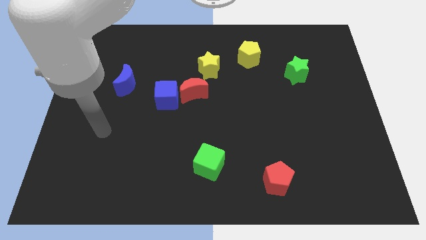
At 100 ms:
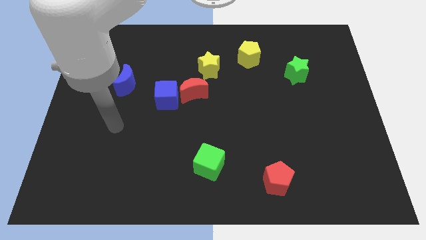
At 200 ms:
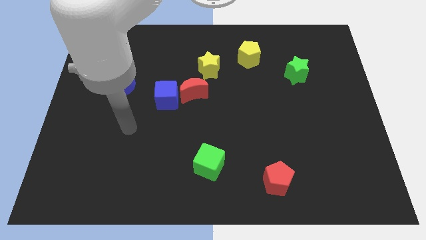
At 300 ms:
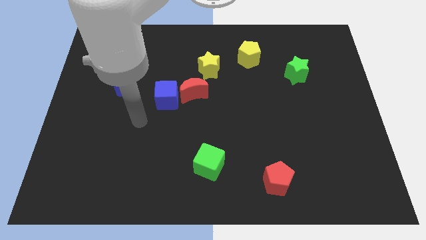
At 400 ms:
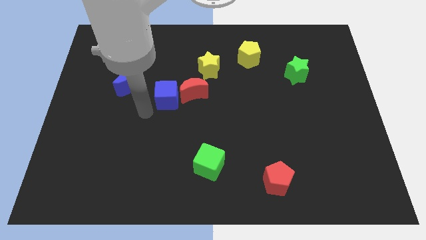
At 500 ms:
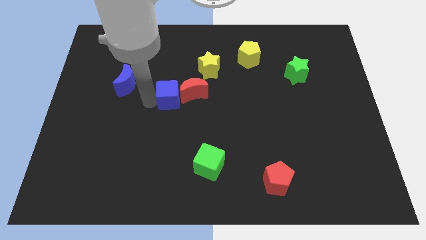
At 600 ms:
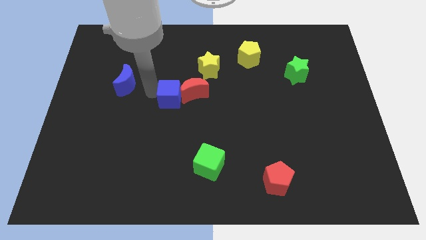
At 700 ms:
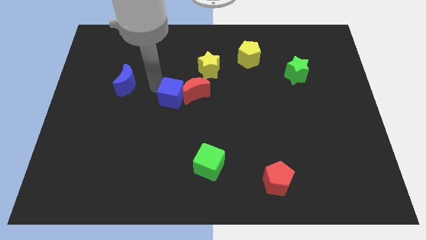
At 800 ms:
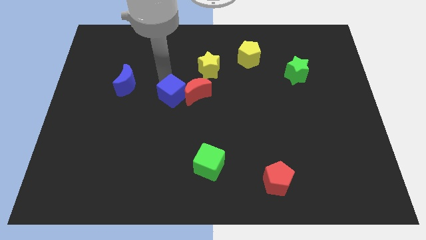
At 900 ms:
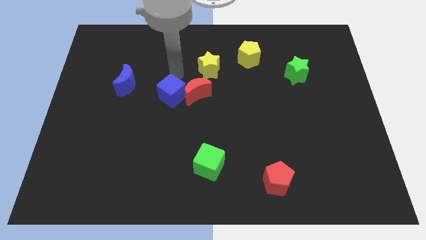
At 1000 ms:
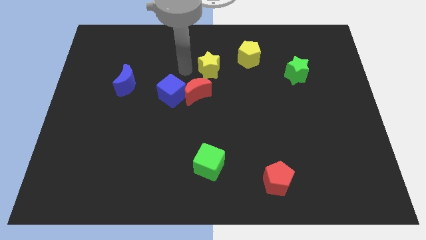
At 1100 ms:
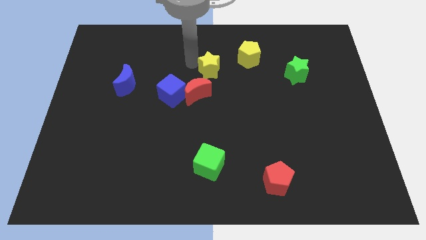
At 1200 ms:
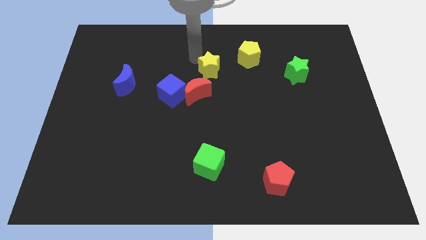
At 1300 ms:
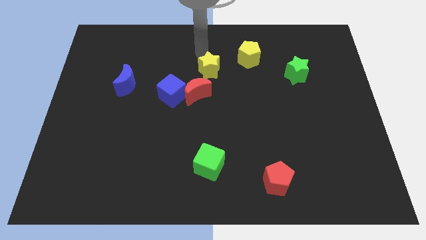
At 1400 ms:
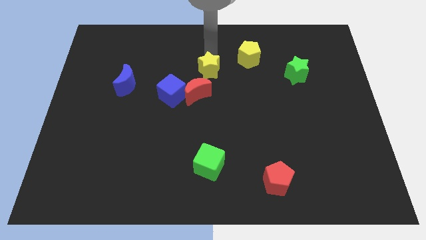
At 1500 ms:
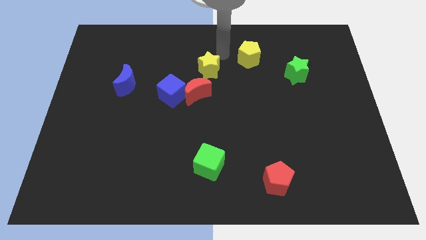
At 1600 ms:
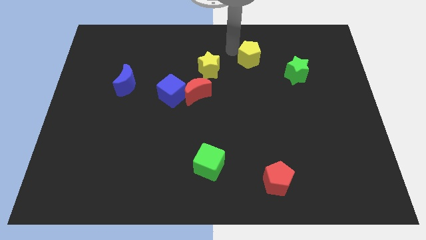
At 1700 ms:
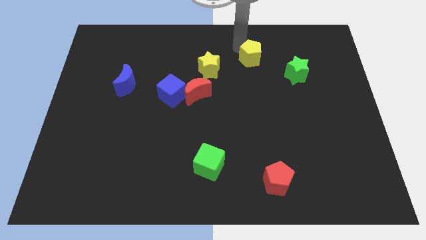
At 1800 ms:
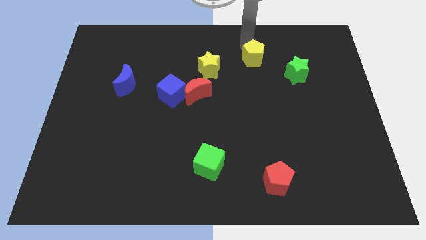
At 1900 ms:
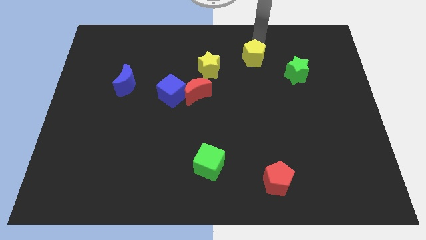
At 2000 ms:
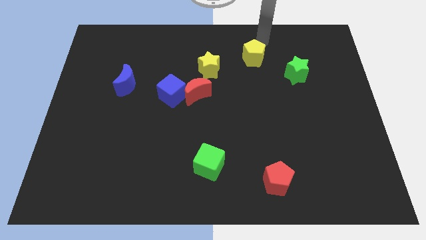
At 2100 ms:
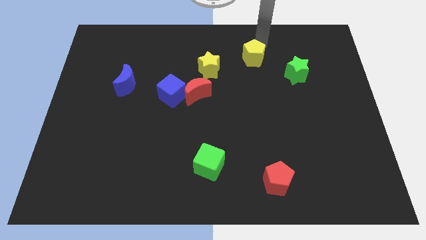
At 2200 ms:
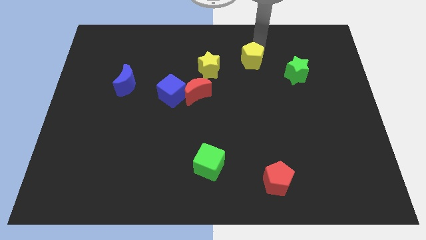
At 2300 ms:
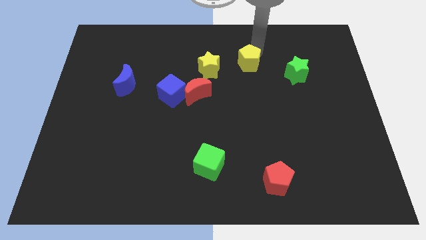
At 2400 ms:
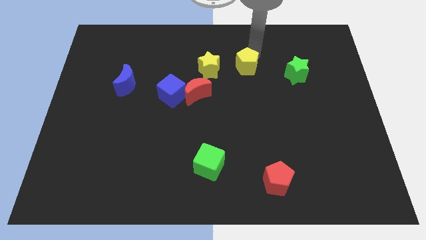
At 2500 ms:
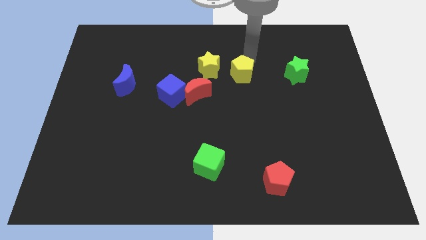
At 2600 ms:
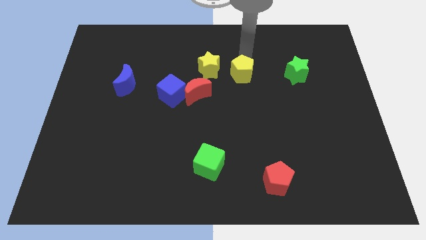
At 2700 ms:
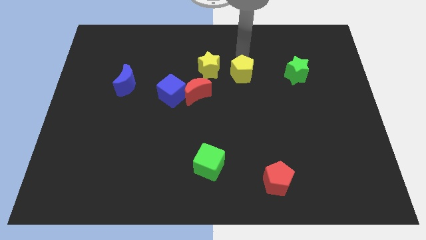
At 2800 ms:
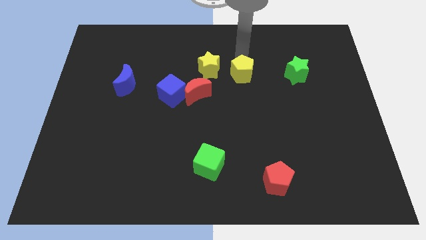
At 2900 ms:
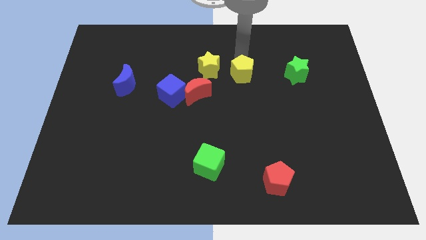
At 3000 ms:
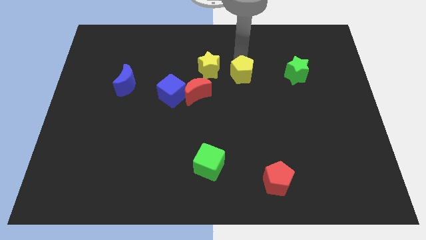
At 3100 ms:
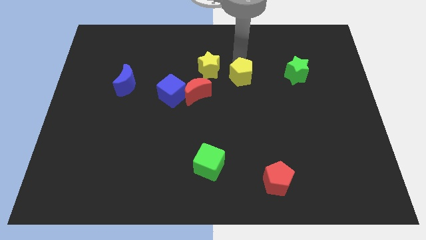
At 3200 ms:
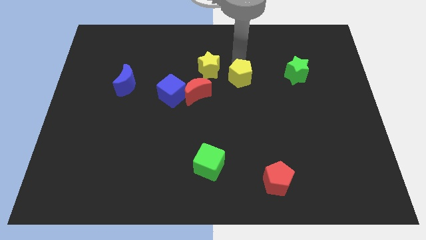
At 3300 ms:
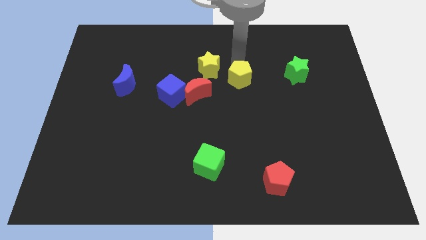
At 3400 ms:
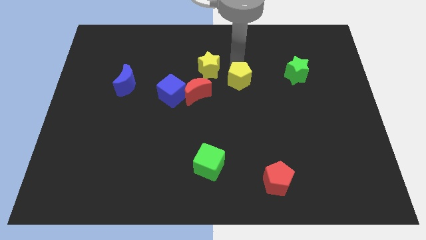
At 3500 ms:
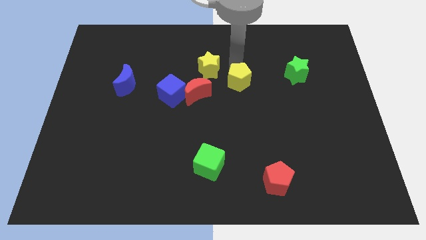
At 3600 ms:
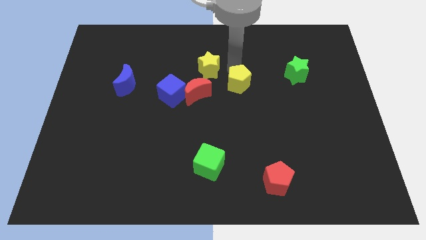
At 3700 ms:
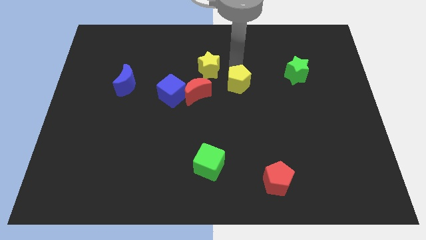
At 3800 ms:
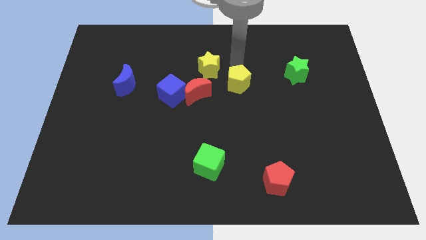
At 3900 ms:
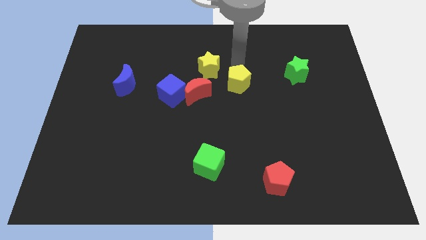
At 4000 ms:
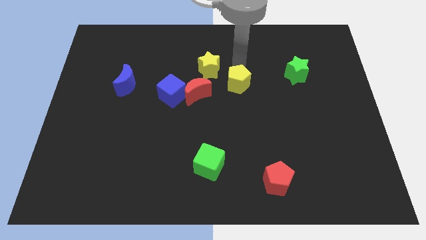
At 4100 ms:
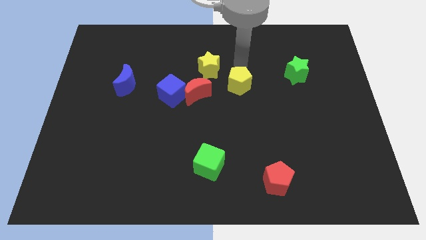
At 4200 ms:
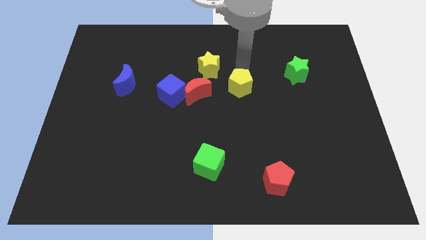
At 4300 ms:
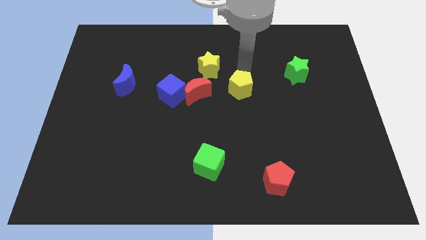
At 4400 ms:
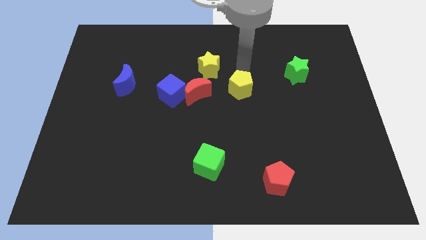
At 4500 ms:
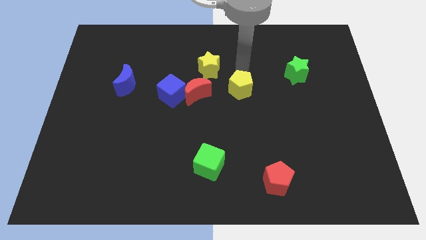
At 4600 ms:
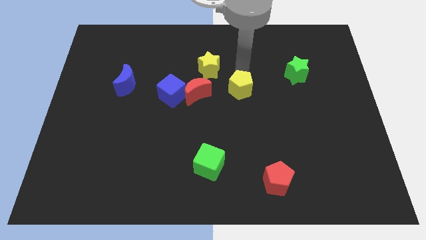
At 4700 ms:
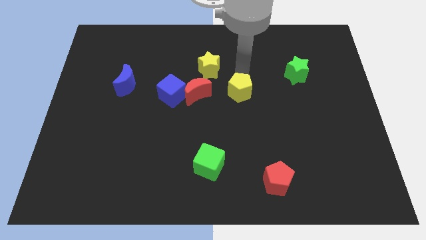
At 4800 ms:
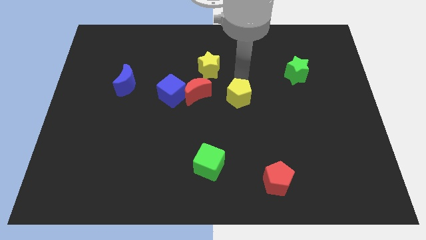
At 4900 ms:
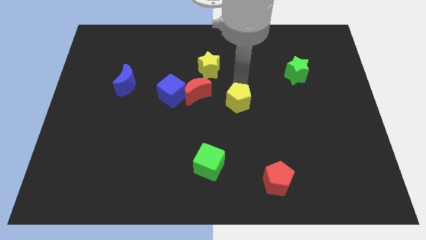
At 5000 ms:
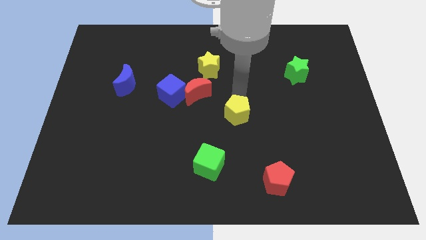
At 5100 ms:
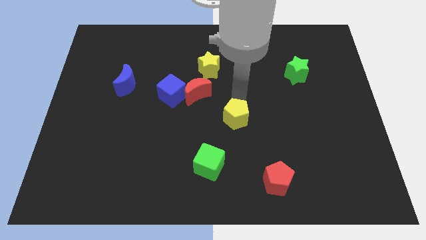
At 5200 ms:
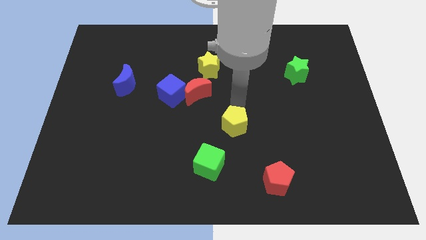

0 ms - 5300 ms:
push the yellow pentagon to the top right side of the green cube

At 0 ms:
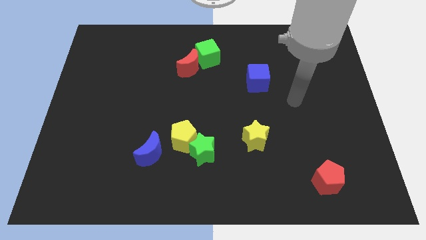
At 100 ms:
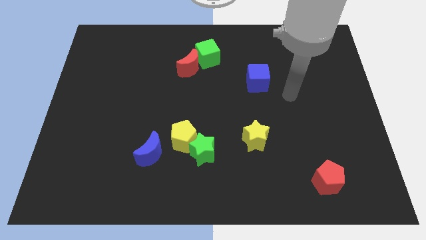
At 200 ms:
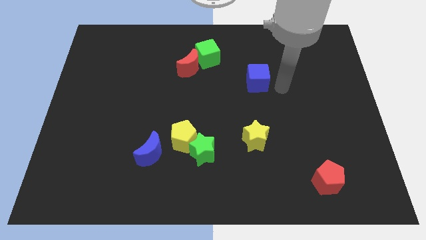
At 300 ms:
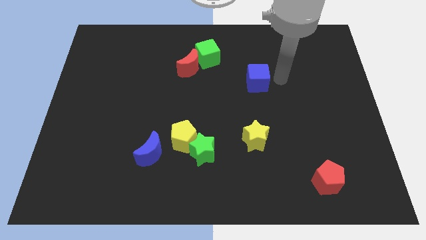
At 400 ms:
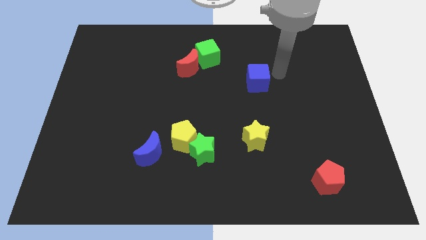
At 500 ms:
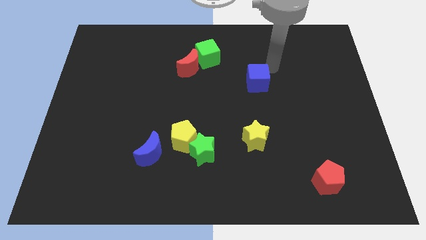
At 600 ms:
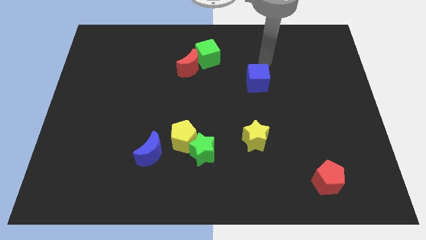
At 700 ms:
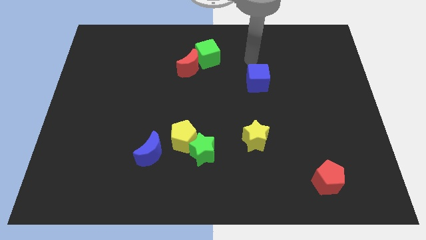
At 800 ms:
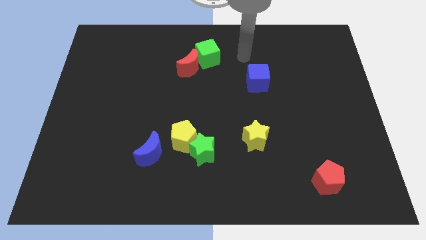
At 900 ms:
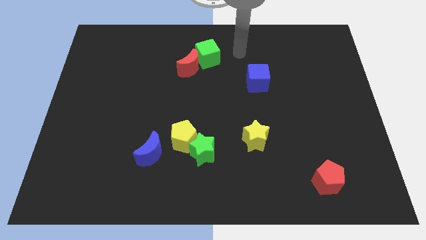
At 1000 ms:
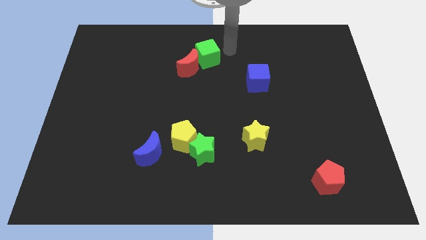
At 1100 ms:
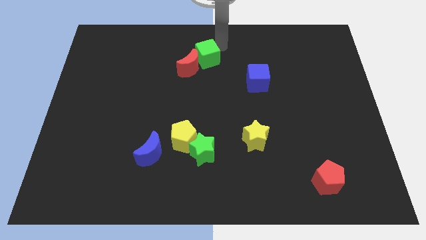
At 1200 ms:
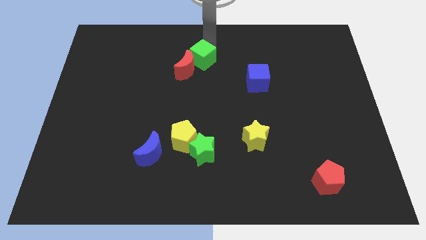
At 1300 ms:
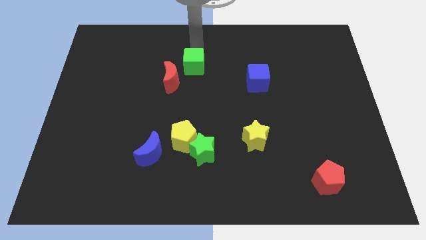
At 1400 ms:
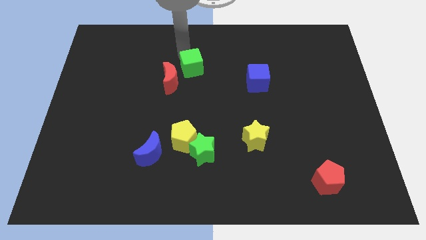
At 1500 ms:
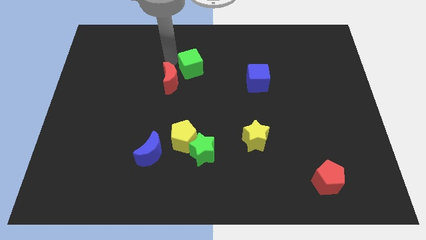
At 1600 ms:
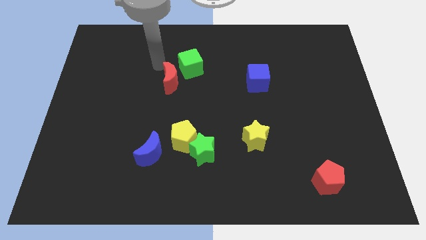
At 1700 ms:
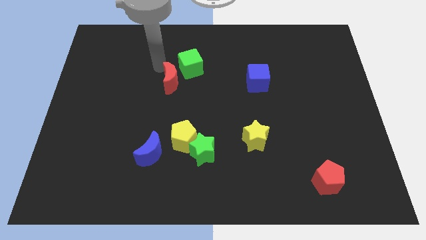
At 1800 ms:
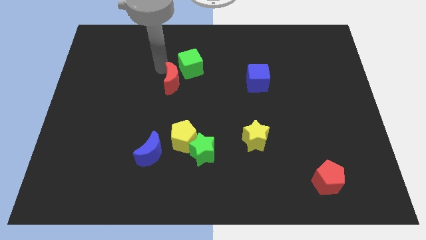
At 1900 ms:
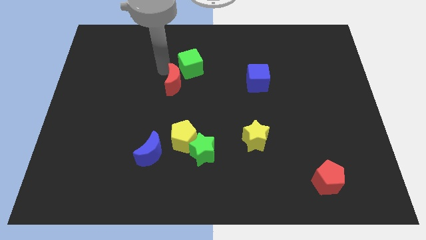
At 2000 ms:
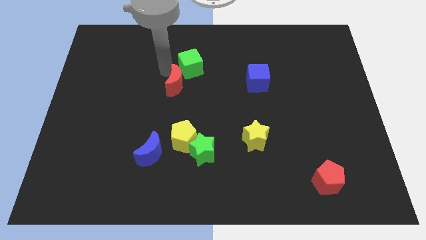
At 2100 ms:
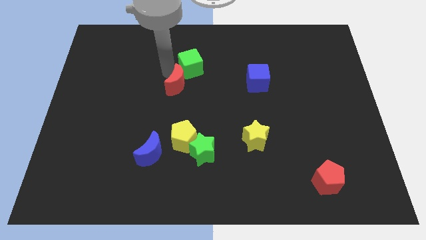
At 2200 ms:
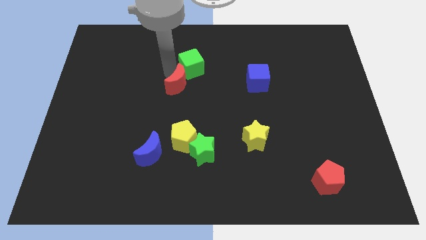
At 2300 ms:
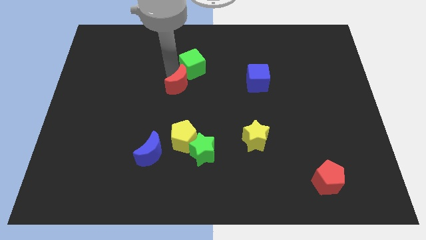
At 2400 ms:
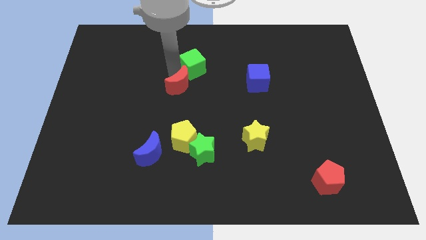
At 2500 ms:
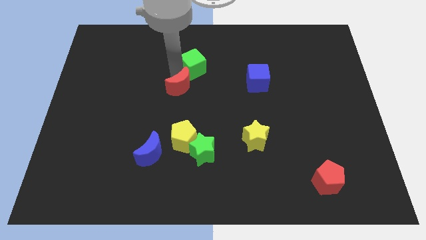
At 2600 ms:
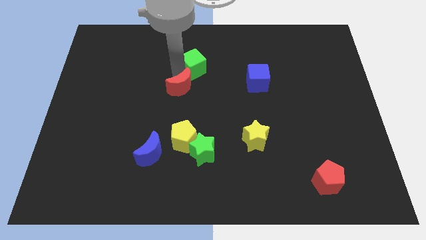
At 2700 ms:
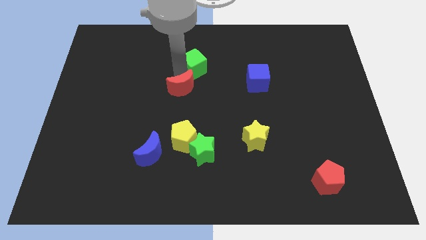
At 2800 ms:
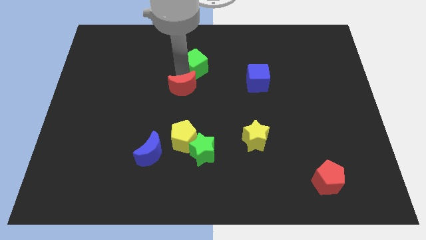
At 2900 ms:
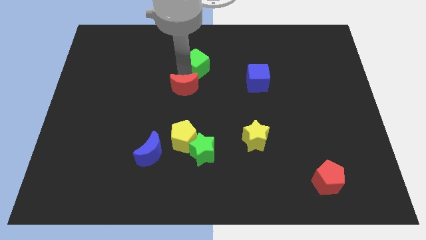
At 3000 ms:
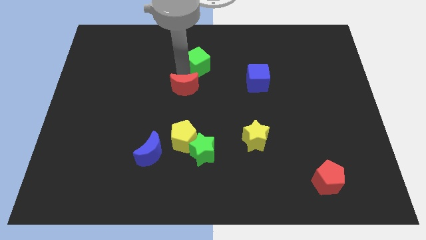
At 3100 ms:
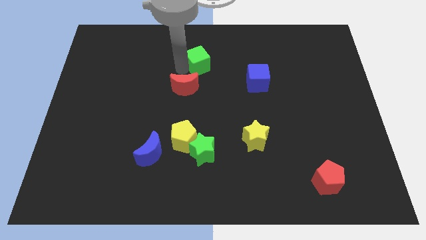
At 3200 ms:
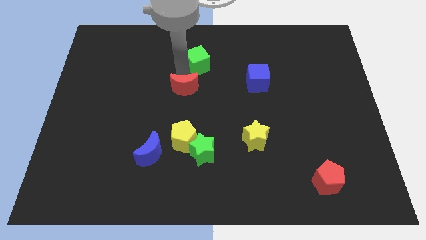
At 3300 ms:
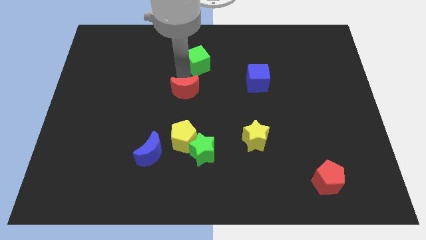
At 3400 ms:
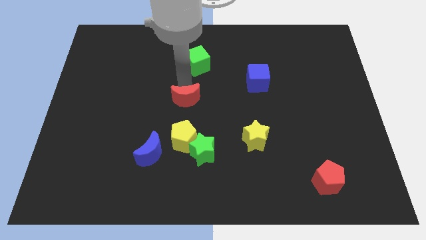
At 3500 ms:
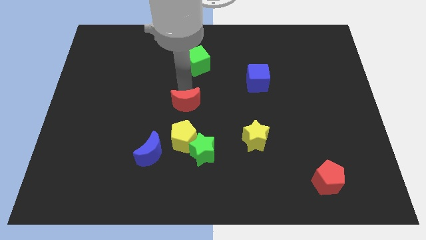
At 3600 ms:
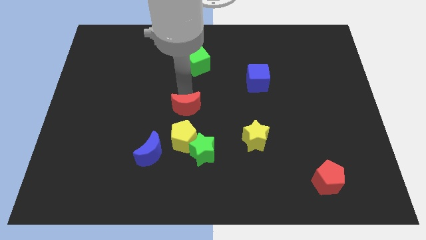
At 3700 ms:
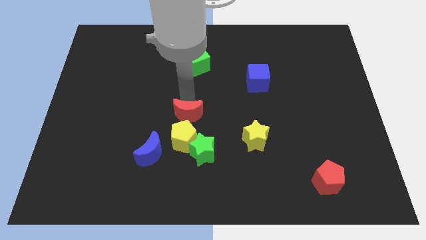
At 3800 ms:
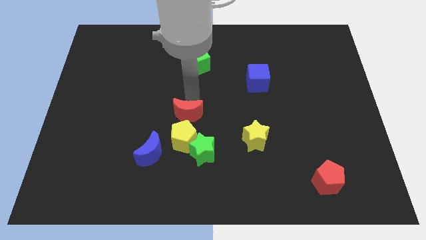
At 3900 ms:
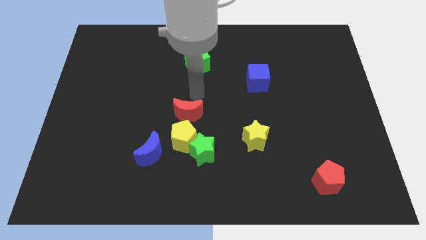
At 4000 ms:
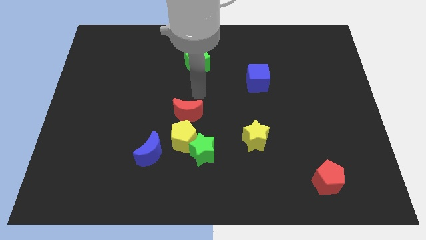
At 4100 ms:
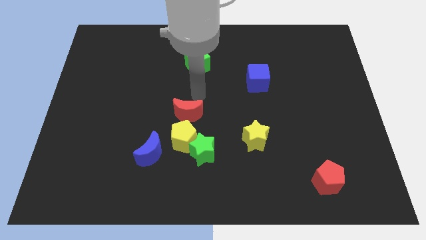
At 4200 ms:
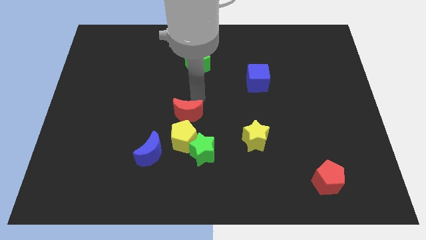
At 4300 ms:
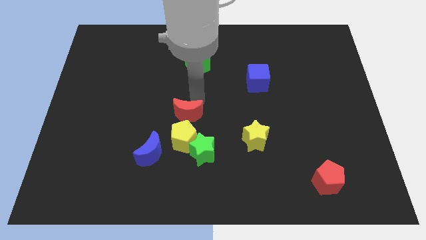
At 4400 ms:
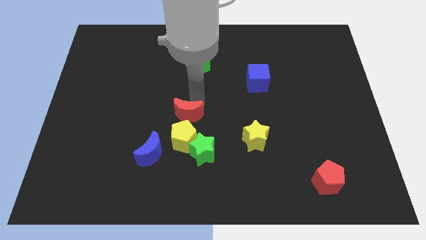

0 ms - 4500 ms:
push the red moon diagonally up and to the right of the blue moon
